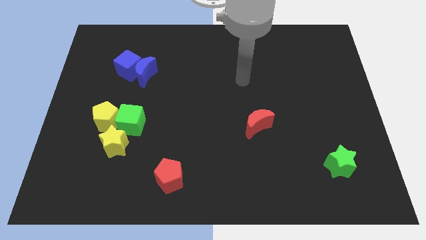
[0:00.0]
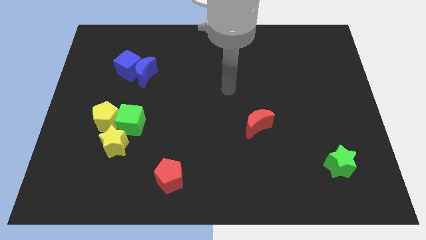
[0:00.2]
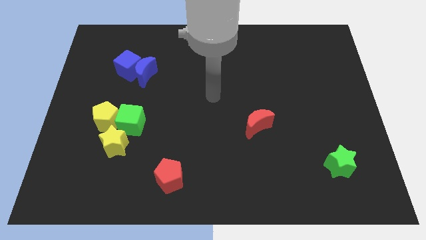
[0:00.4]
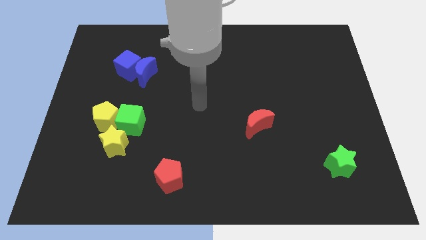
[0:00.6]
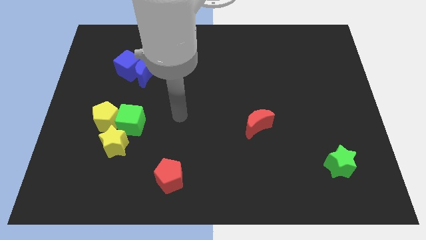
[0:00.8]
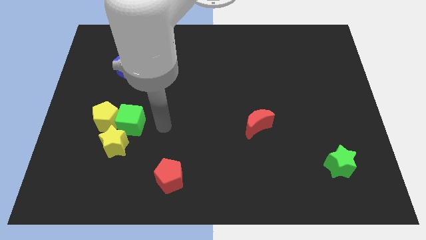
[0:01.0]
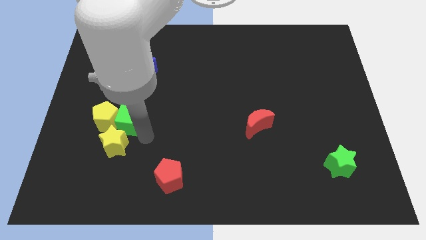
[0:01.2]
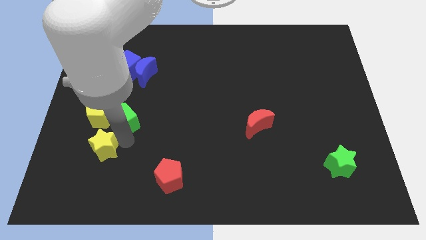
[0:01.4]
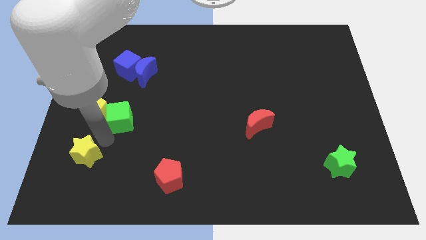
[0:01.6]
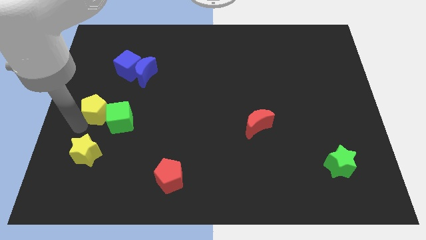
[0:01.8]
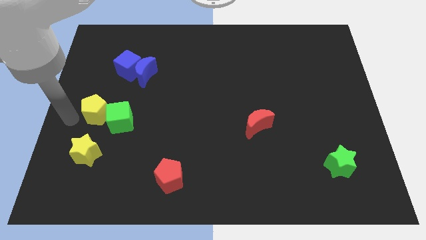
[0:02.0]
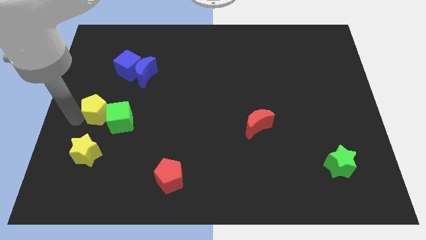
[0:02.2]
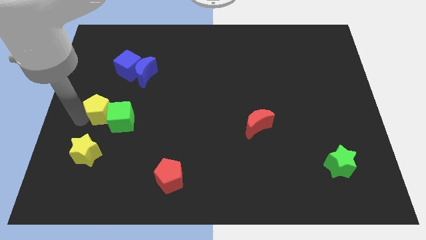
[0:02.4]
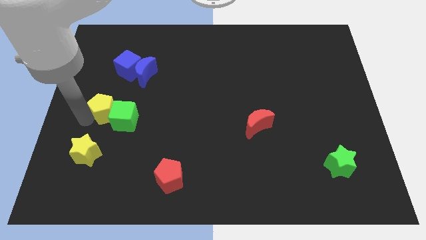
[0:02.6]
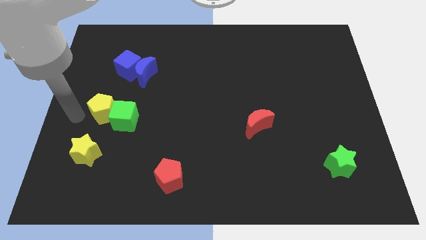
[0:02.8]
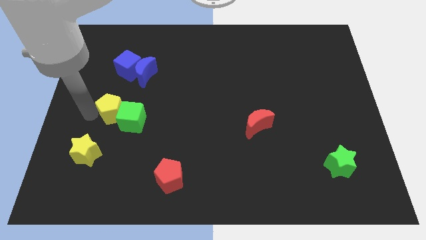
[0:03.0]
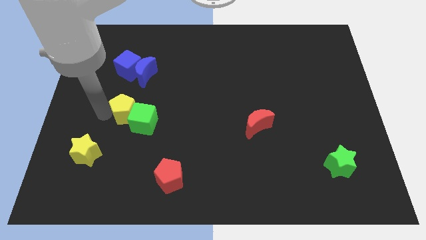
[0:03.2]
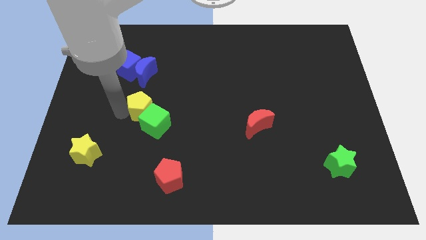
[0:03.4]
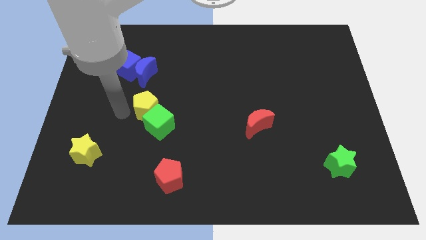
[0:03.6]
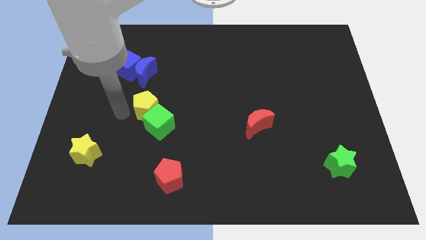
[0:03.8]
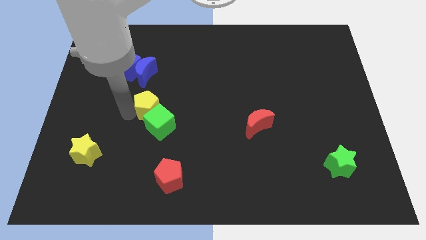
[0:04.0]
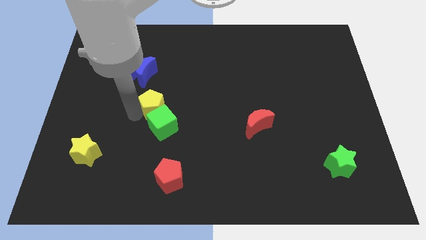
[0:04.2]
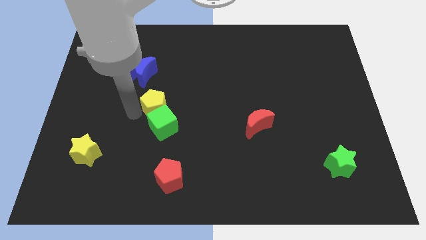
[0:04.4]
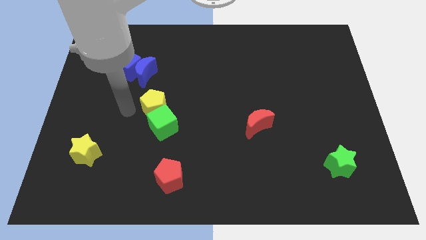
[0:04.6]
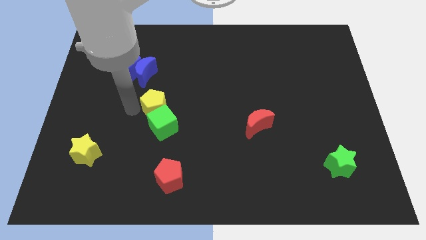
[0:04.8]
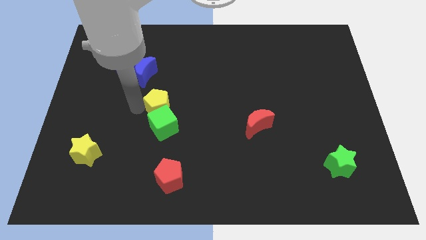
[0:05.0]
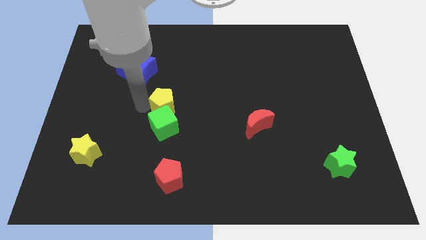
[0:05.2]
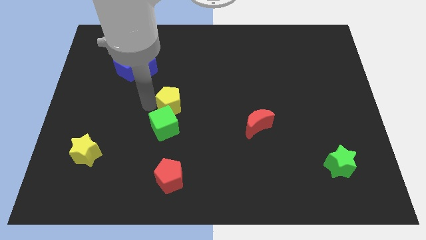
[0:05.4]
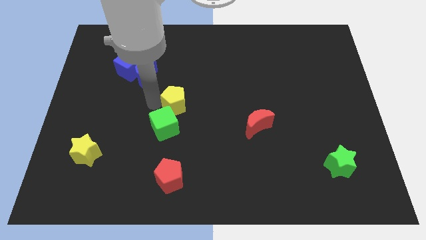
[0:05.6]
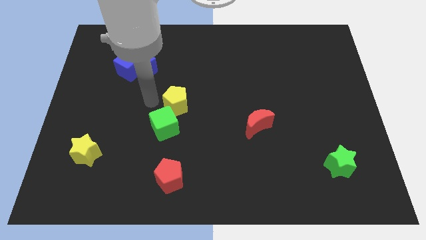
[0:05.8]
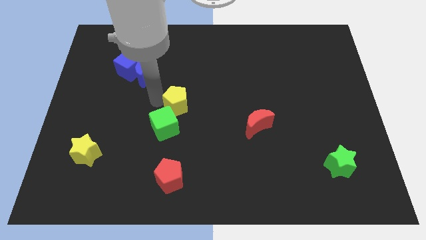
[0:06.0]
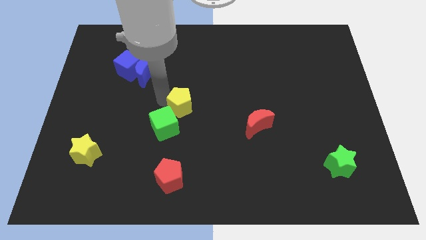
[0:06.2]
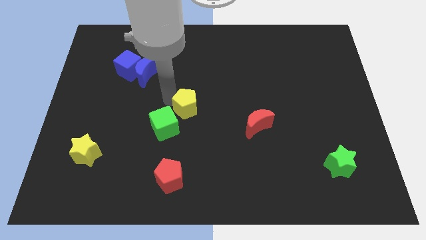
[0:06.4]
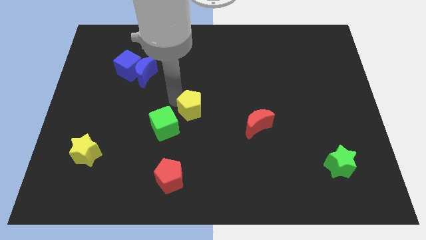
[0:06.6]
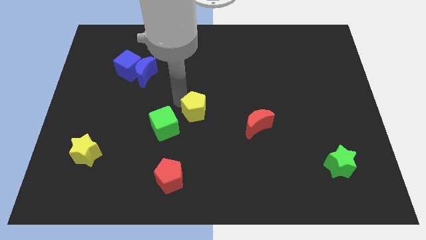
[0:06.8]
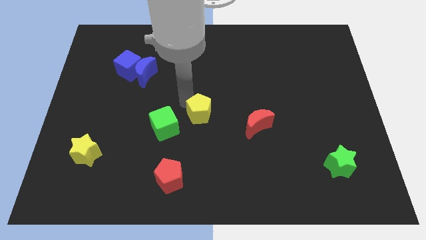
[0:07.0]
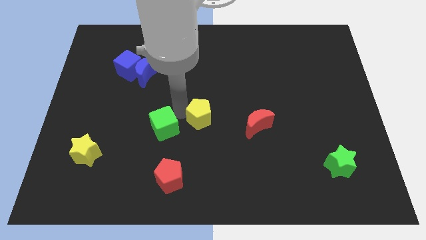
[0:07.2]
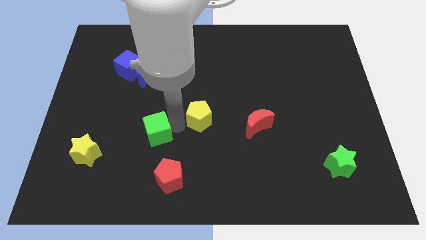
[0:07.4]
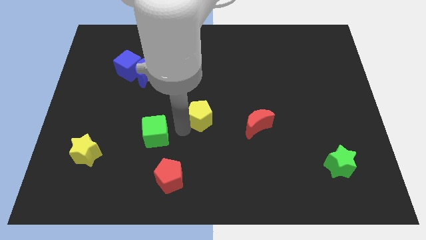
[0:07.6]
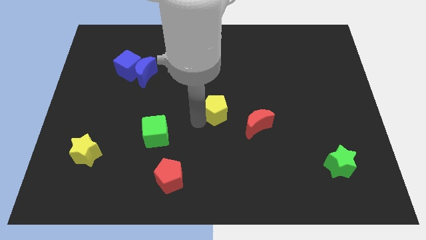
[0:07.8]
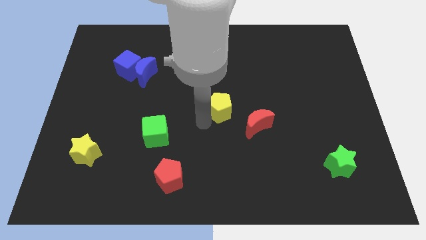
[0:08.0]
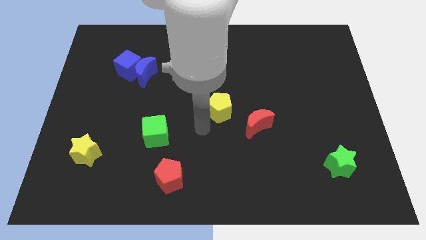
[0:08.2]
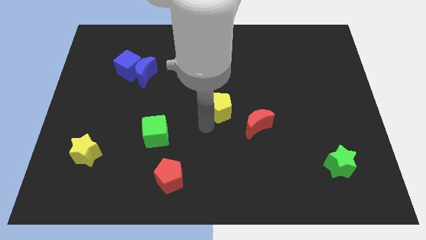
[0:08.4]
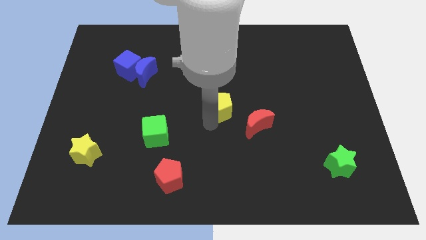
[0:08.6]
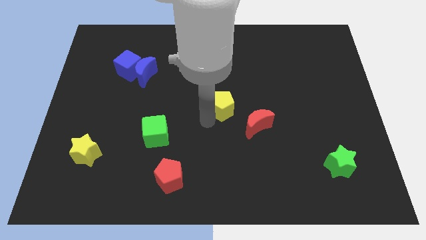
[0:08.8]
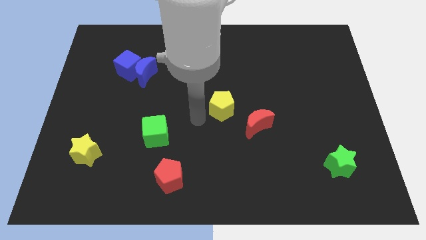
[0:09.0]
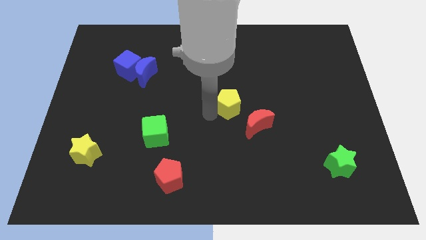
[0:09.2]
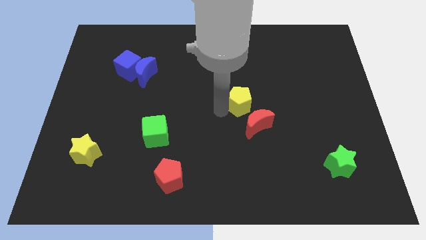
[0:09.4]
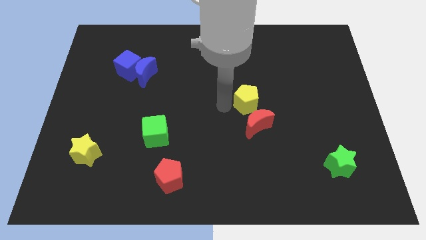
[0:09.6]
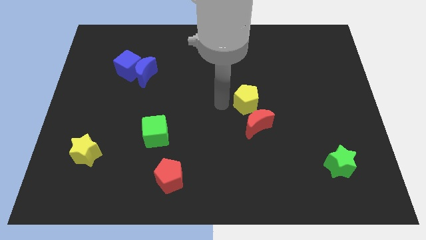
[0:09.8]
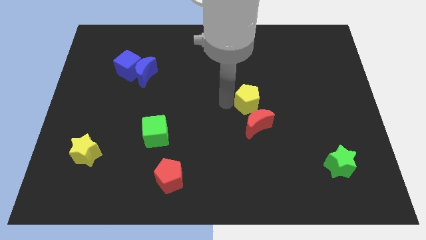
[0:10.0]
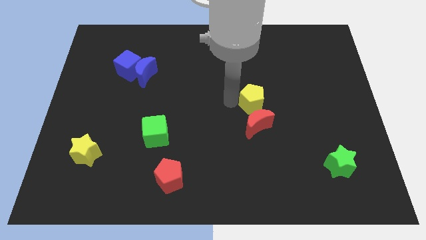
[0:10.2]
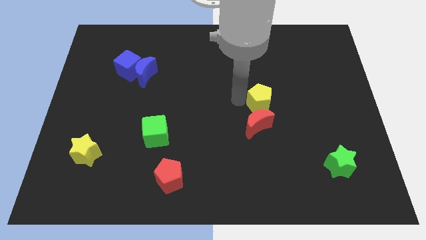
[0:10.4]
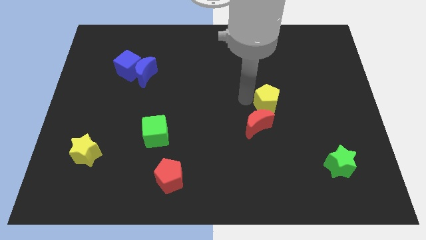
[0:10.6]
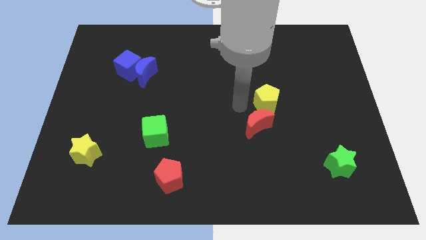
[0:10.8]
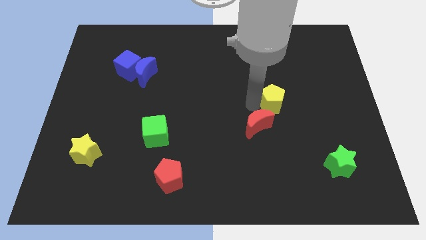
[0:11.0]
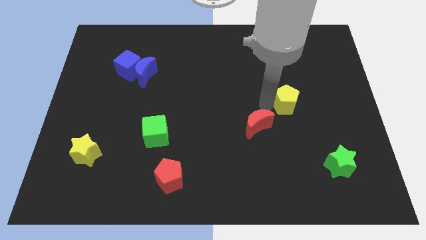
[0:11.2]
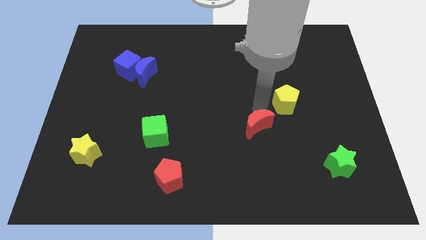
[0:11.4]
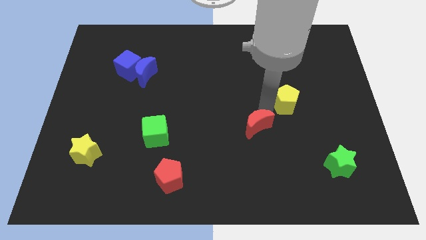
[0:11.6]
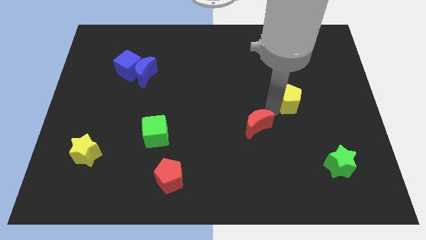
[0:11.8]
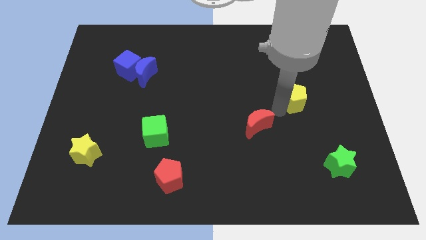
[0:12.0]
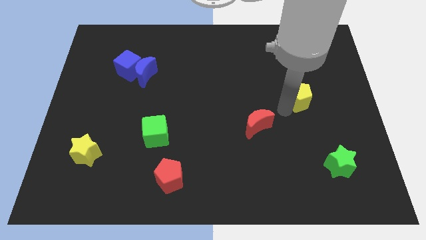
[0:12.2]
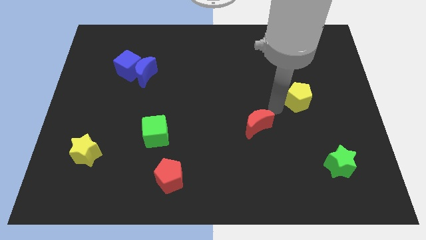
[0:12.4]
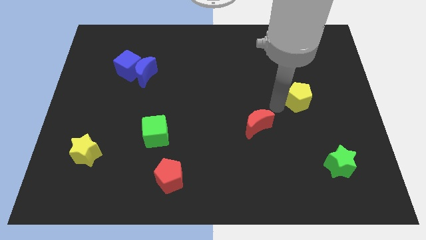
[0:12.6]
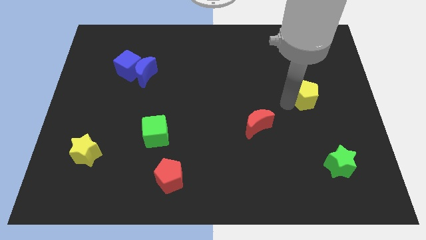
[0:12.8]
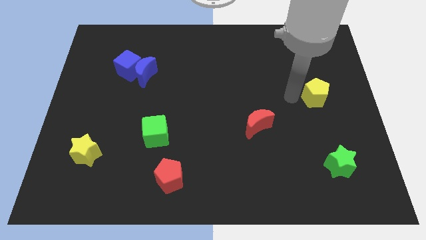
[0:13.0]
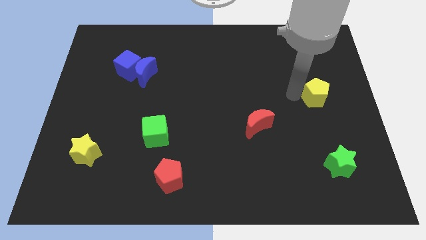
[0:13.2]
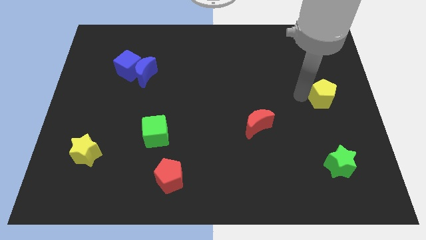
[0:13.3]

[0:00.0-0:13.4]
move the yellow pentagon to the right side of the board
